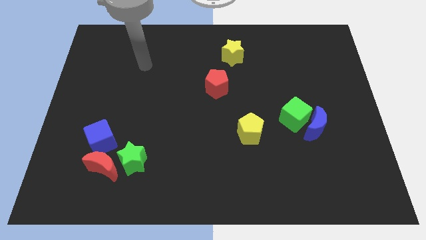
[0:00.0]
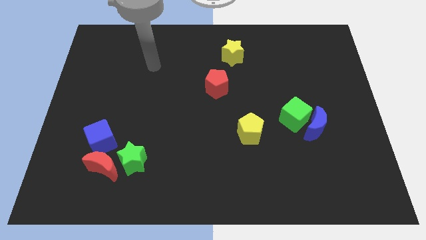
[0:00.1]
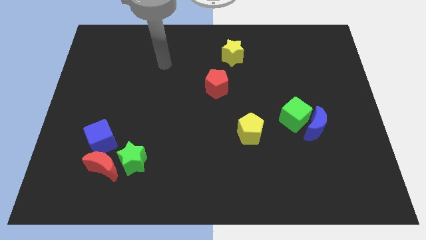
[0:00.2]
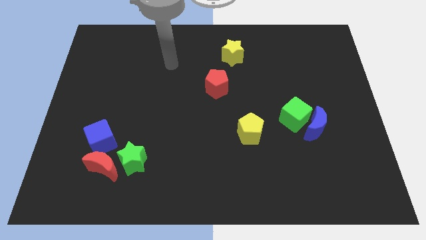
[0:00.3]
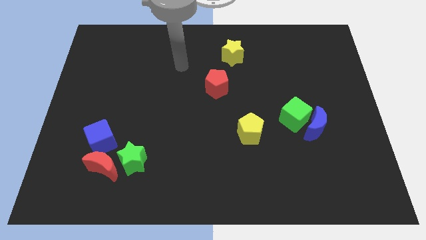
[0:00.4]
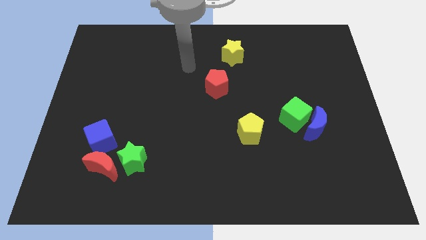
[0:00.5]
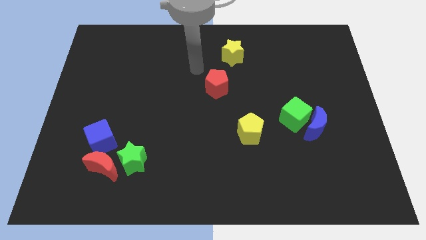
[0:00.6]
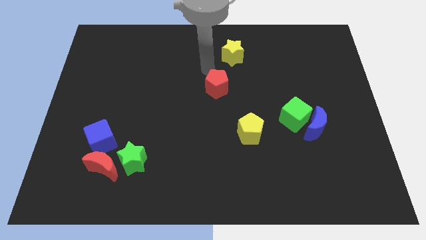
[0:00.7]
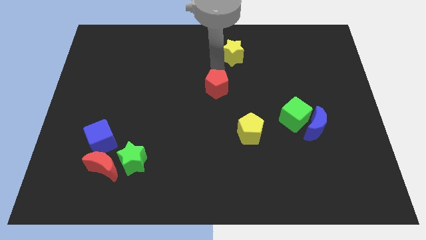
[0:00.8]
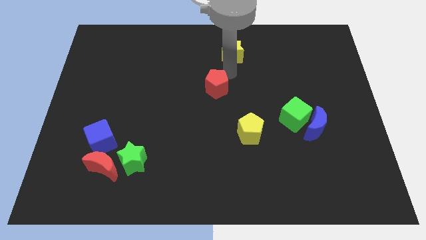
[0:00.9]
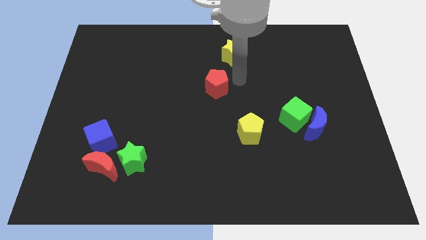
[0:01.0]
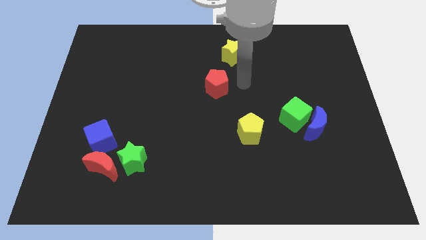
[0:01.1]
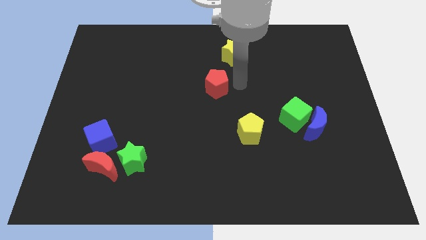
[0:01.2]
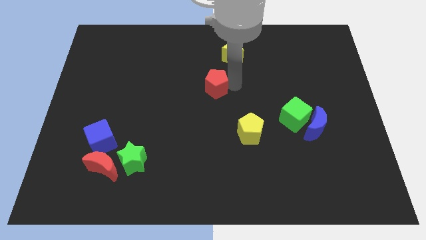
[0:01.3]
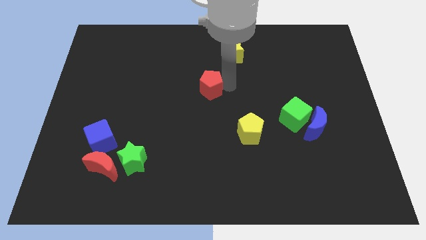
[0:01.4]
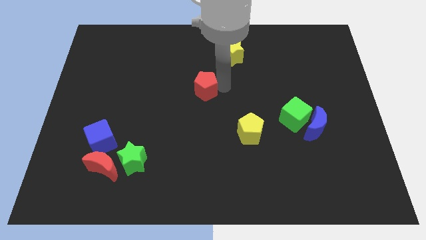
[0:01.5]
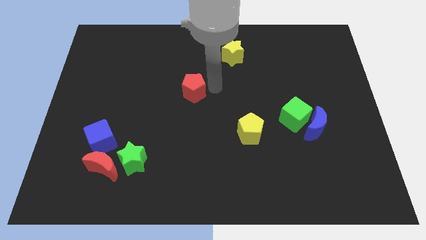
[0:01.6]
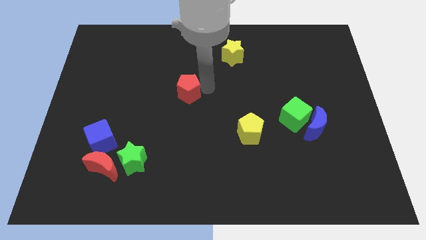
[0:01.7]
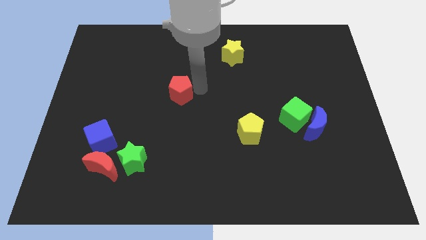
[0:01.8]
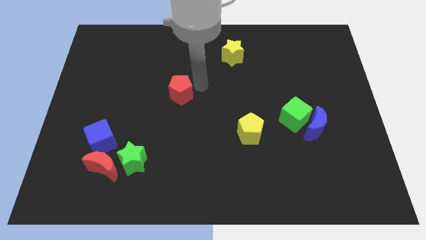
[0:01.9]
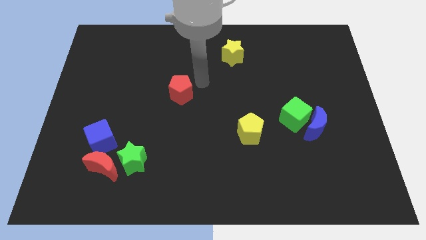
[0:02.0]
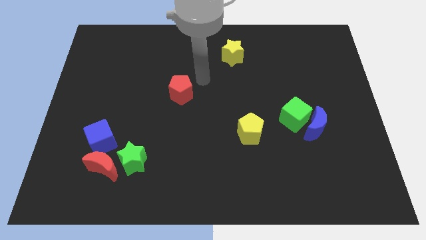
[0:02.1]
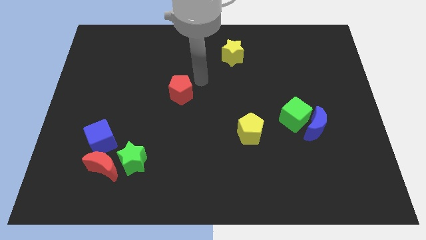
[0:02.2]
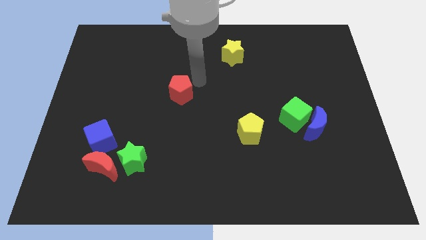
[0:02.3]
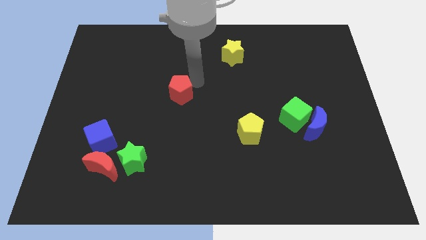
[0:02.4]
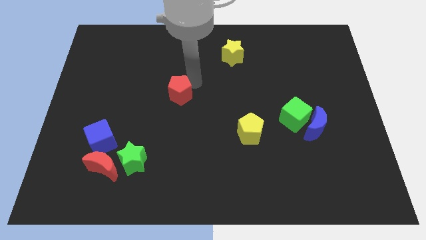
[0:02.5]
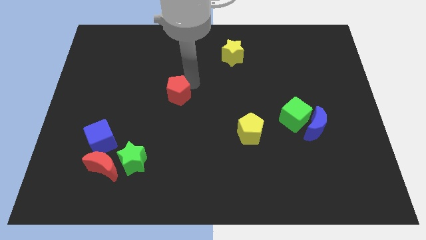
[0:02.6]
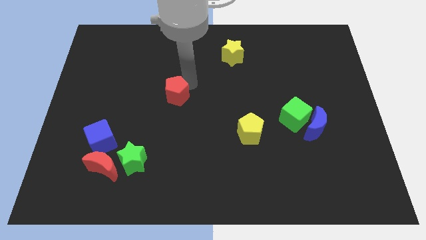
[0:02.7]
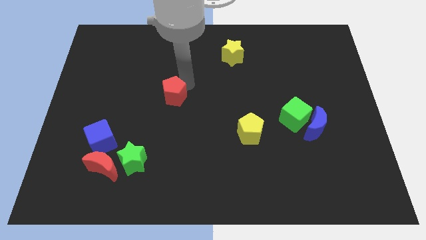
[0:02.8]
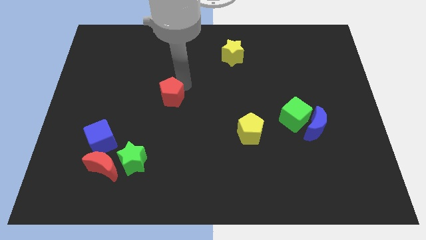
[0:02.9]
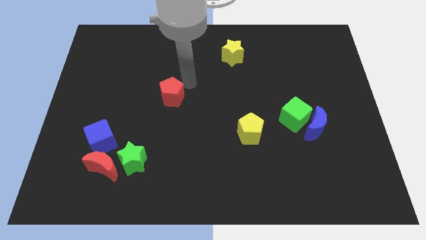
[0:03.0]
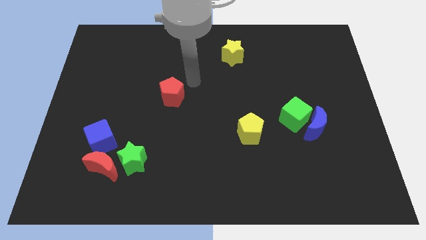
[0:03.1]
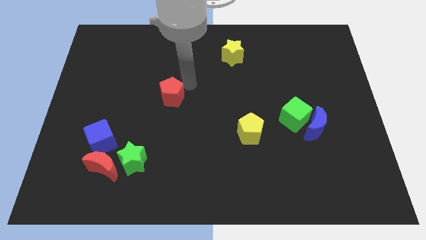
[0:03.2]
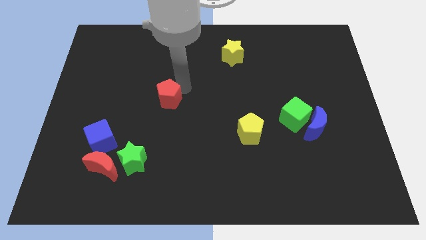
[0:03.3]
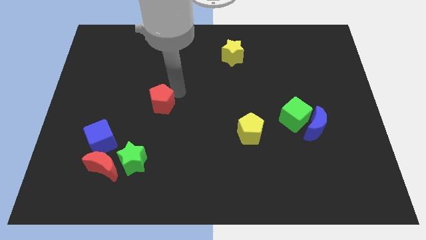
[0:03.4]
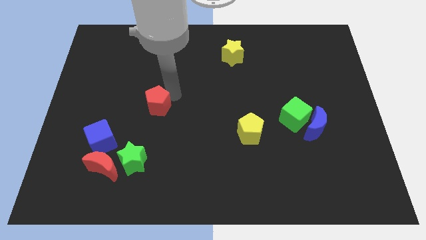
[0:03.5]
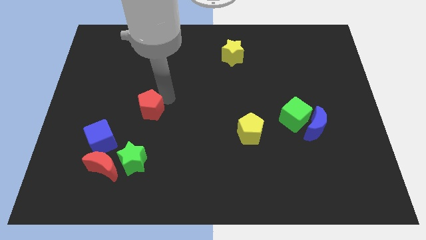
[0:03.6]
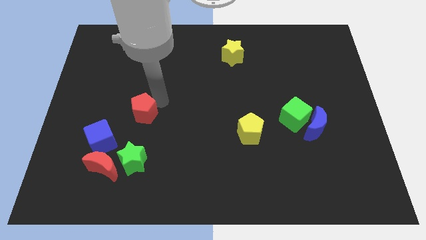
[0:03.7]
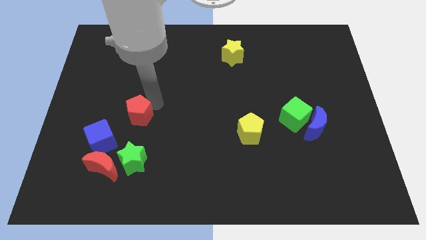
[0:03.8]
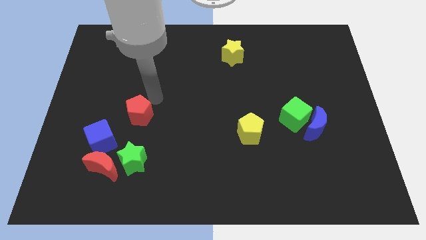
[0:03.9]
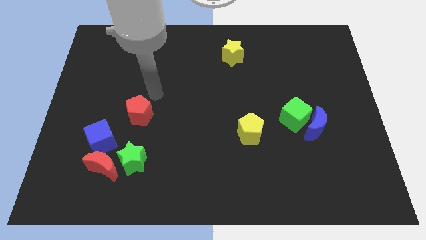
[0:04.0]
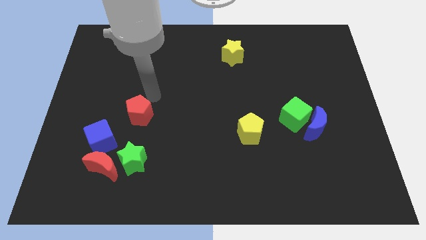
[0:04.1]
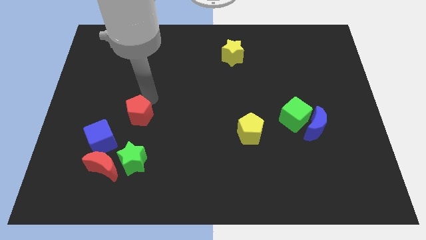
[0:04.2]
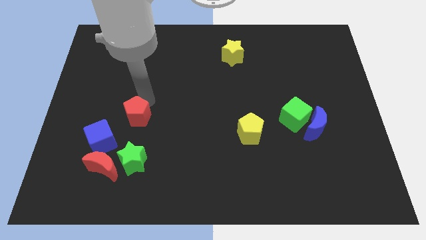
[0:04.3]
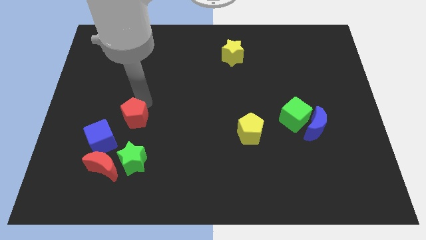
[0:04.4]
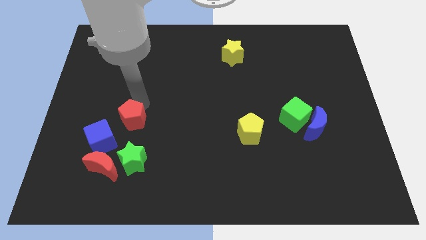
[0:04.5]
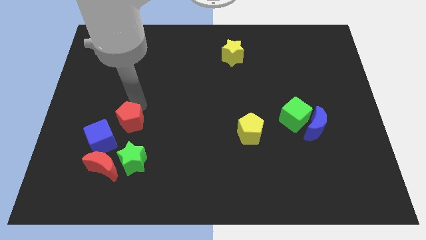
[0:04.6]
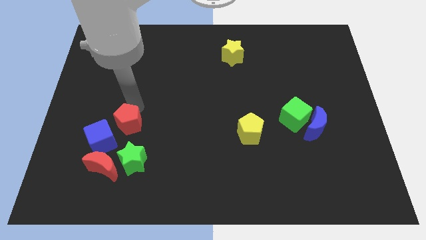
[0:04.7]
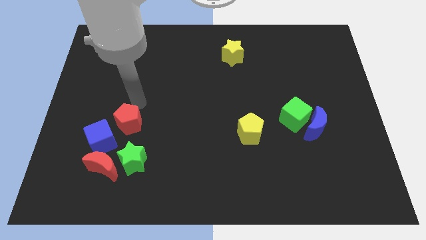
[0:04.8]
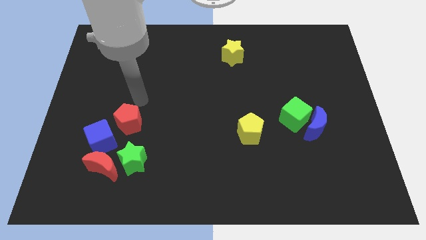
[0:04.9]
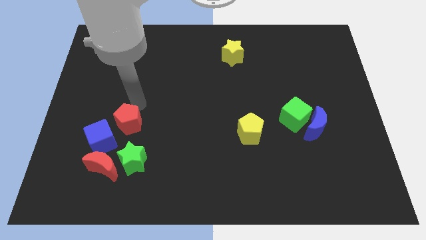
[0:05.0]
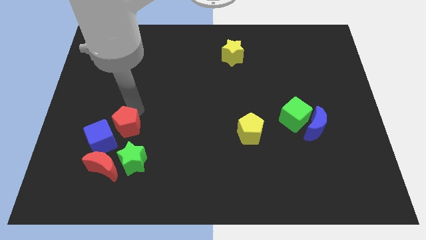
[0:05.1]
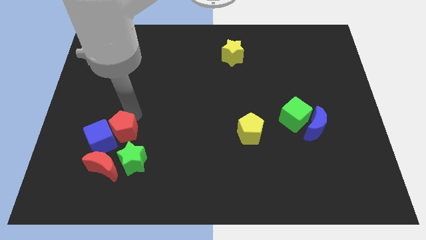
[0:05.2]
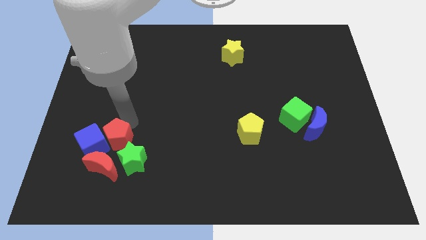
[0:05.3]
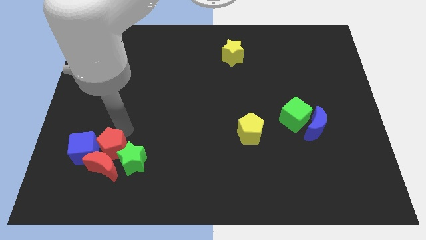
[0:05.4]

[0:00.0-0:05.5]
slide the red pentagon close to the red moon

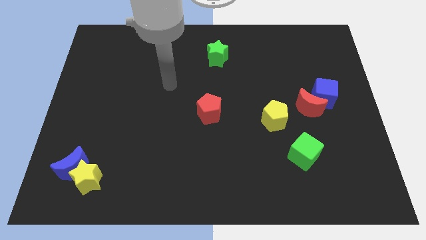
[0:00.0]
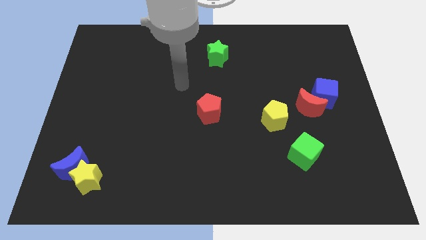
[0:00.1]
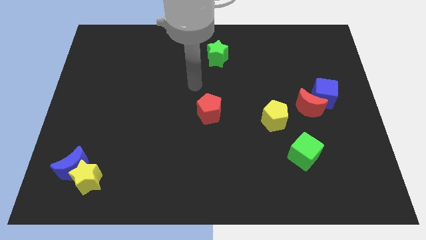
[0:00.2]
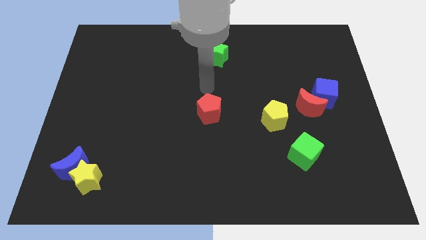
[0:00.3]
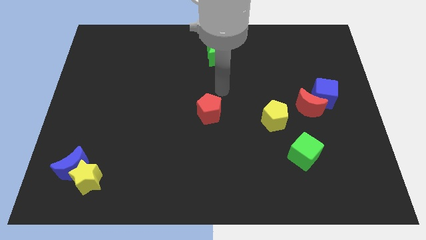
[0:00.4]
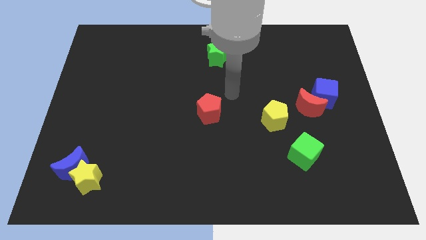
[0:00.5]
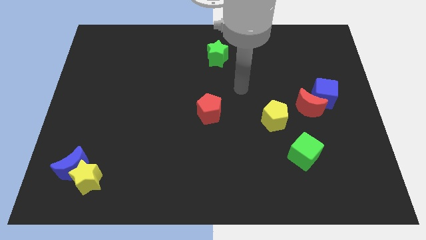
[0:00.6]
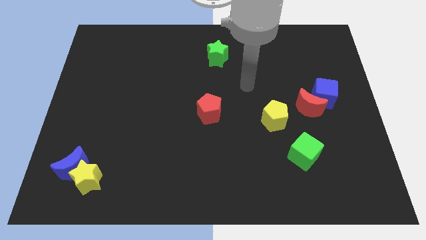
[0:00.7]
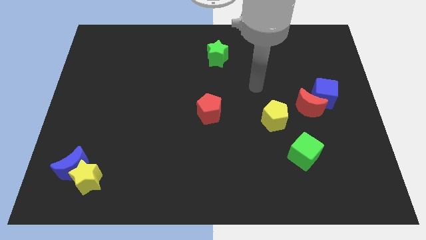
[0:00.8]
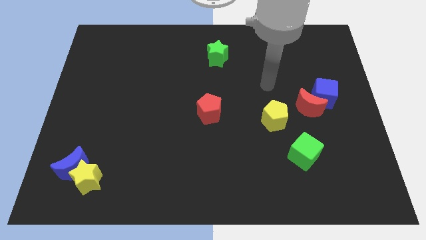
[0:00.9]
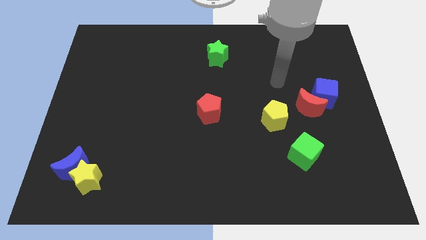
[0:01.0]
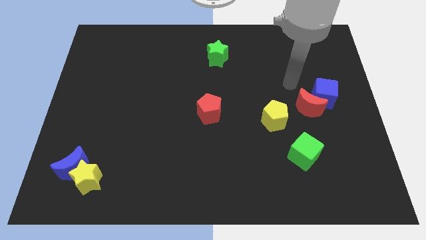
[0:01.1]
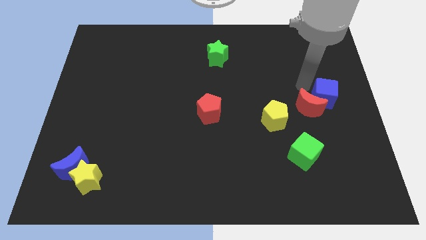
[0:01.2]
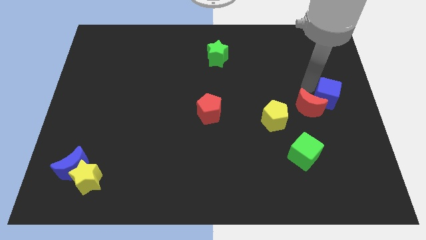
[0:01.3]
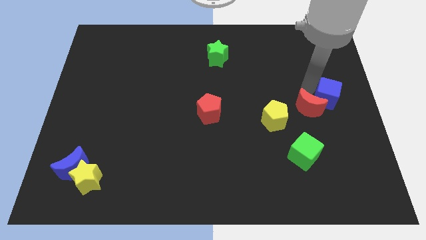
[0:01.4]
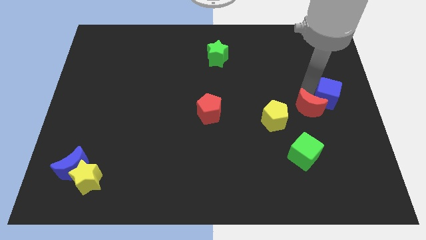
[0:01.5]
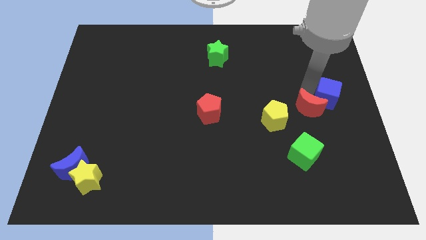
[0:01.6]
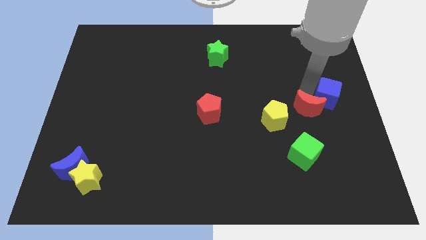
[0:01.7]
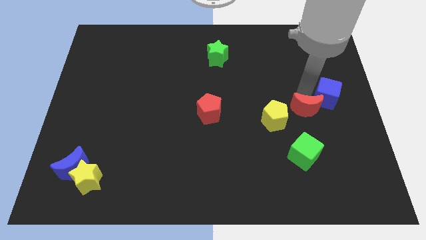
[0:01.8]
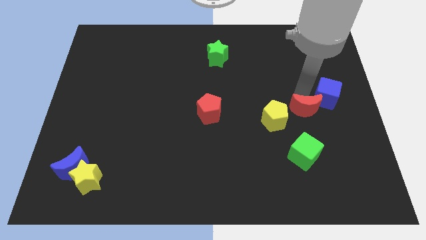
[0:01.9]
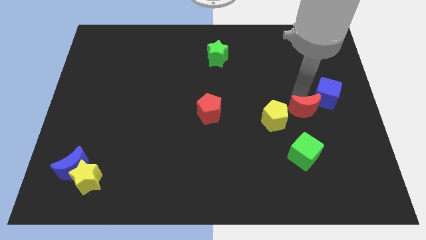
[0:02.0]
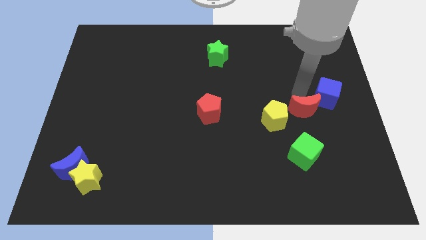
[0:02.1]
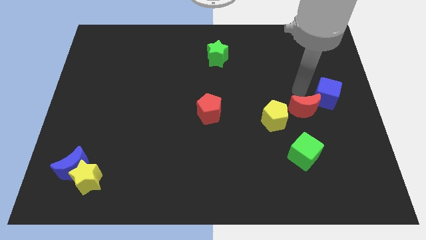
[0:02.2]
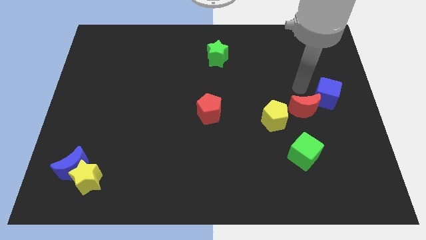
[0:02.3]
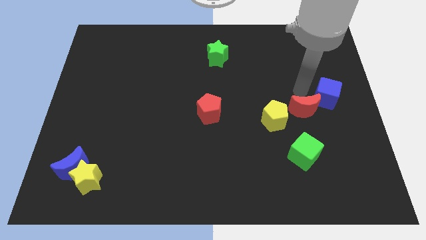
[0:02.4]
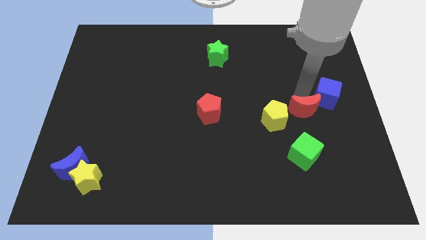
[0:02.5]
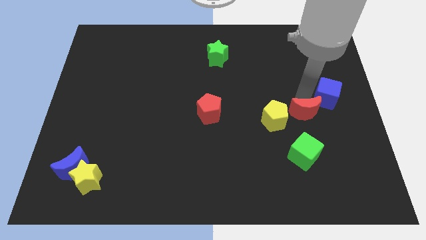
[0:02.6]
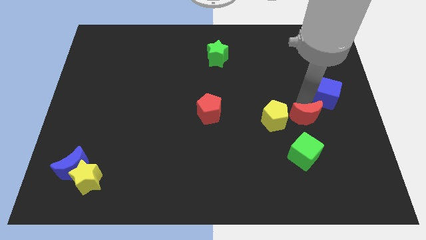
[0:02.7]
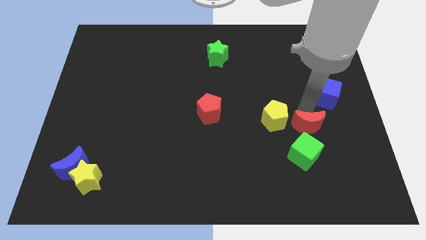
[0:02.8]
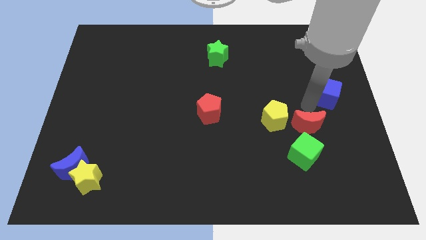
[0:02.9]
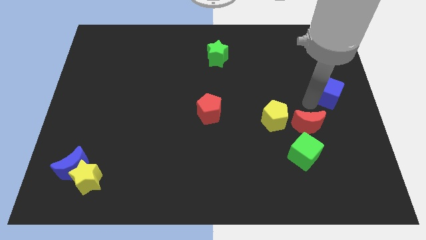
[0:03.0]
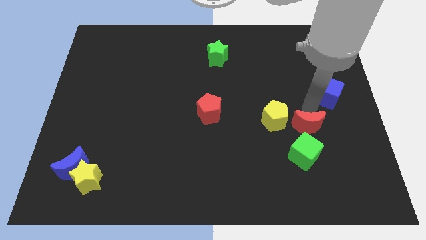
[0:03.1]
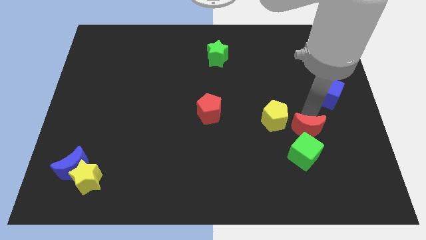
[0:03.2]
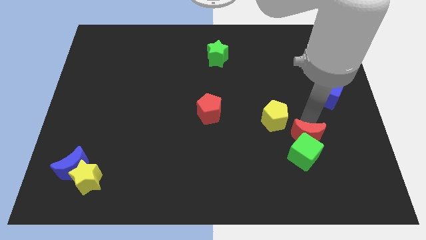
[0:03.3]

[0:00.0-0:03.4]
move the red moon close to the green cube
